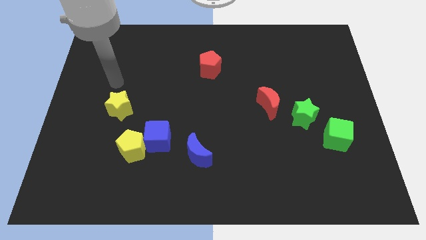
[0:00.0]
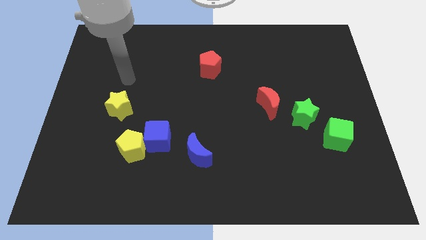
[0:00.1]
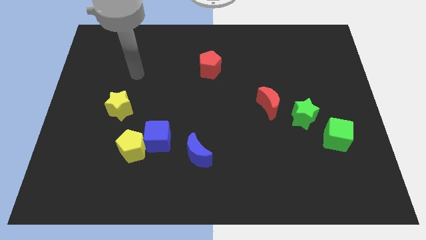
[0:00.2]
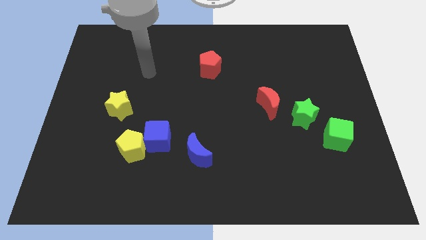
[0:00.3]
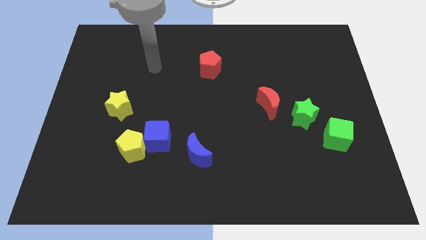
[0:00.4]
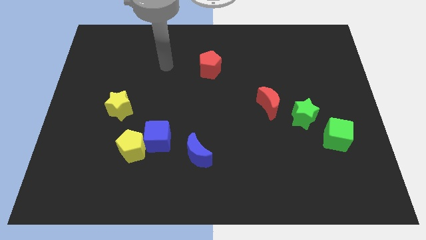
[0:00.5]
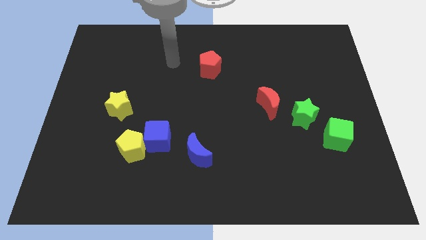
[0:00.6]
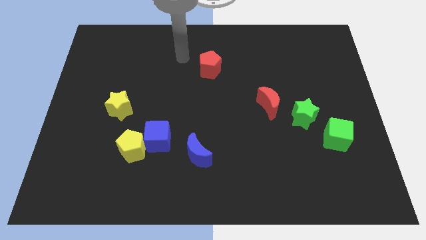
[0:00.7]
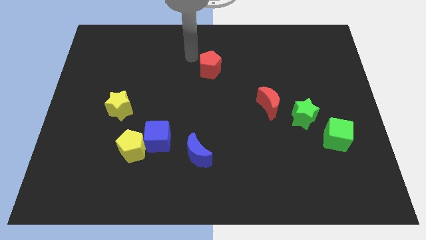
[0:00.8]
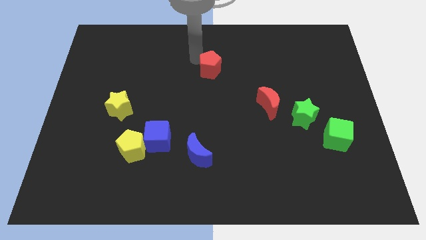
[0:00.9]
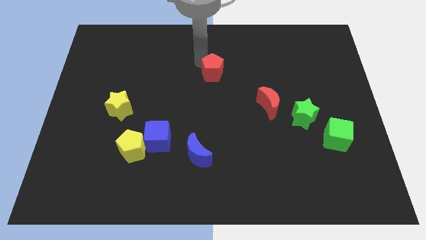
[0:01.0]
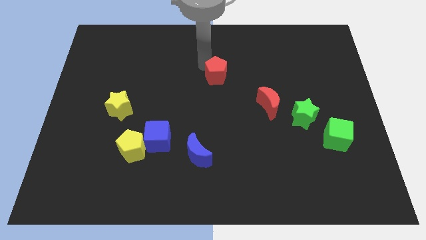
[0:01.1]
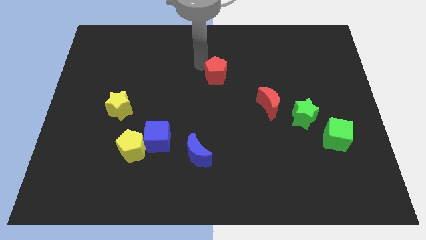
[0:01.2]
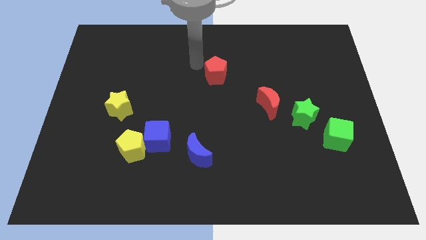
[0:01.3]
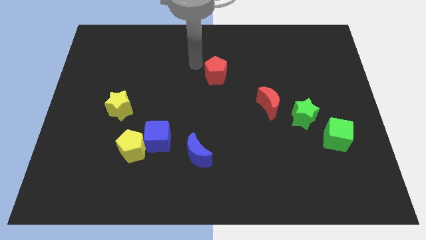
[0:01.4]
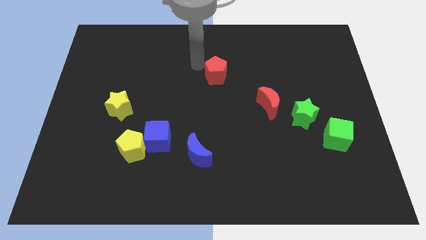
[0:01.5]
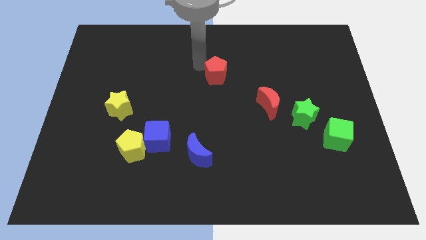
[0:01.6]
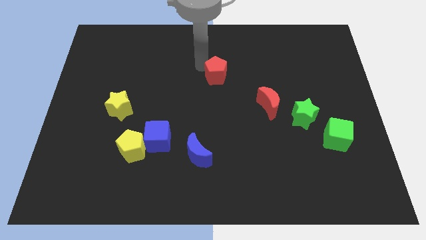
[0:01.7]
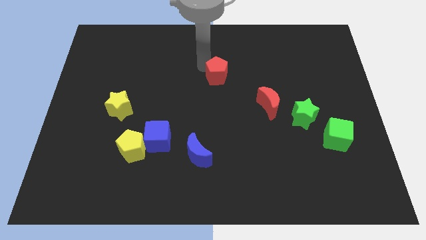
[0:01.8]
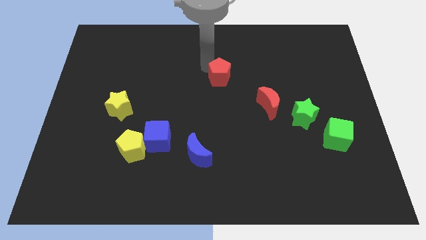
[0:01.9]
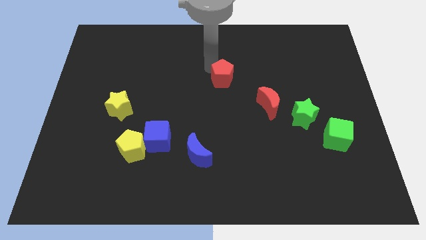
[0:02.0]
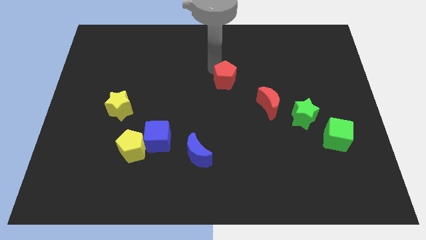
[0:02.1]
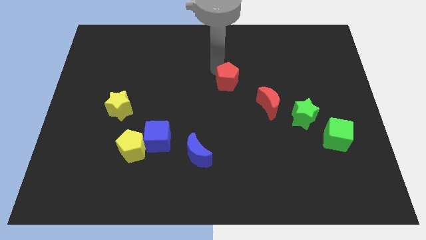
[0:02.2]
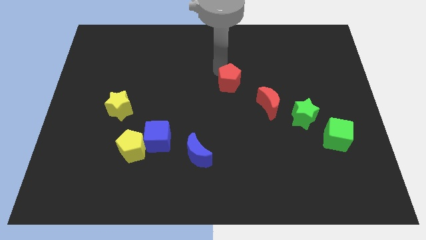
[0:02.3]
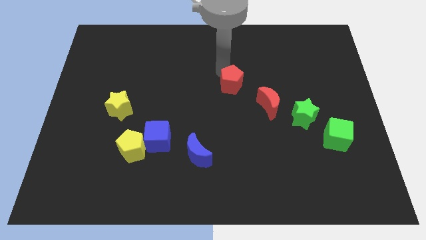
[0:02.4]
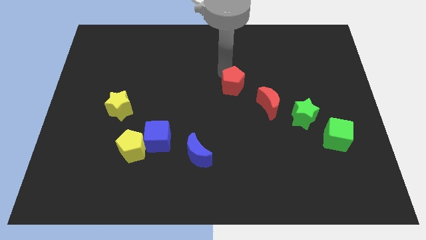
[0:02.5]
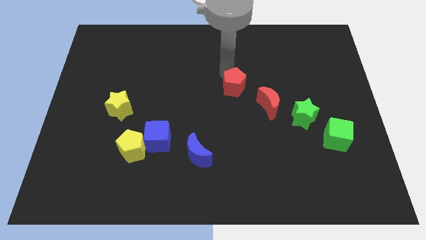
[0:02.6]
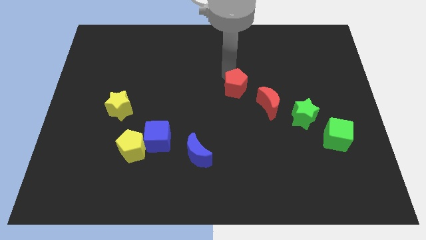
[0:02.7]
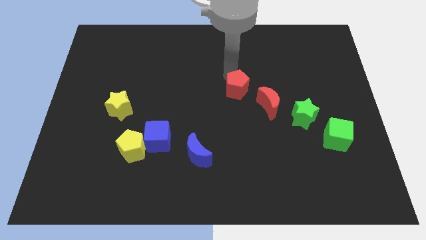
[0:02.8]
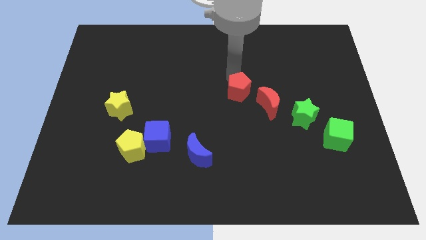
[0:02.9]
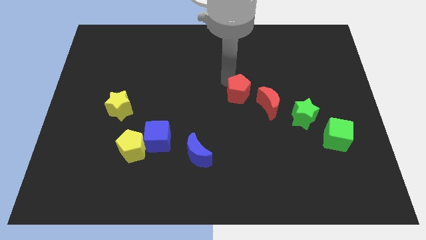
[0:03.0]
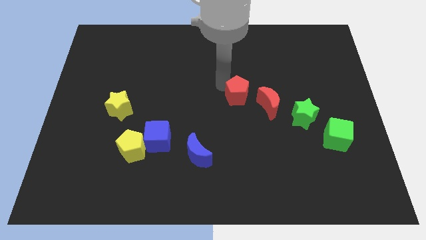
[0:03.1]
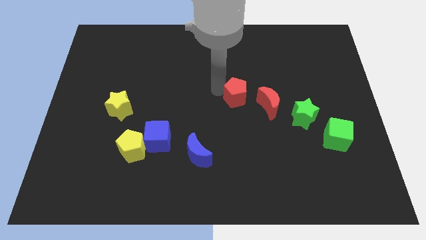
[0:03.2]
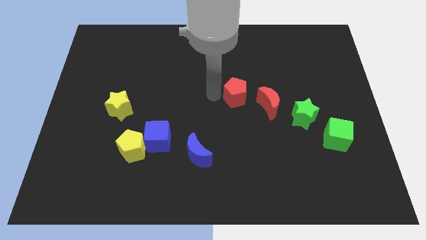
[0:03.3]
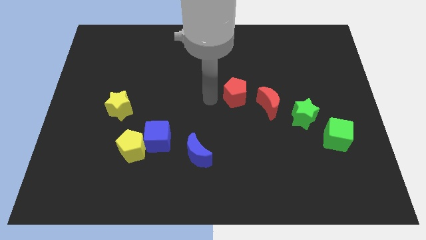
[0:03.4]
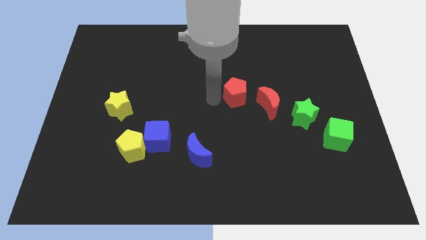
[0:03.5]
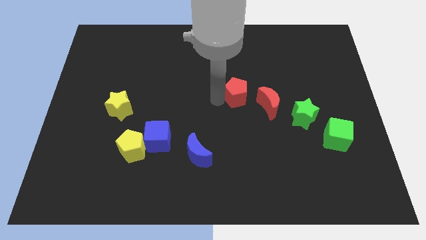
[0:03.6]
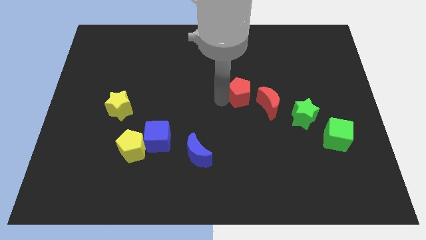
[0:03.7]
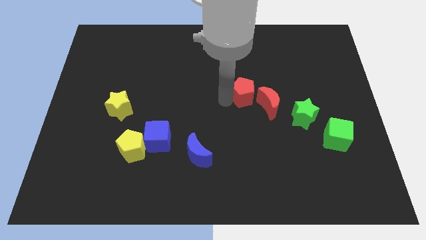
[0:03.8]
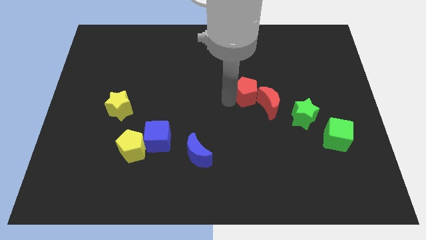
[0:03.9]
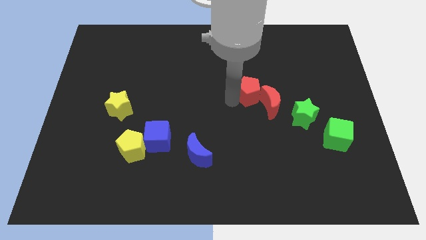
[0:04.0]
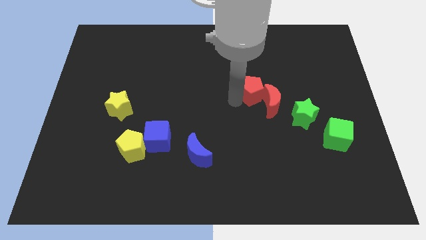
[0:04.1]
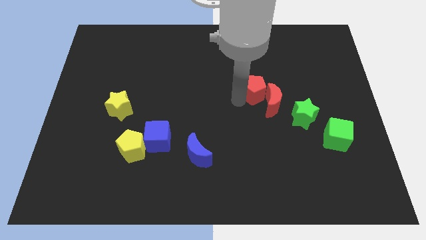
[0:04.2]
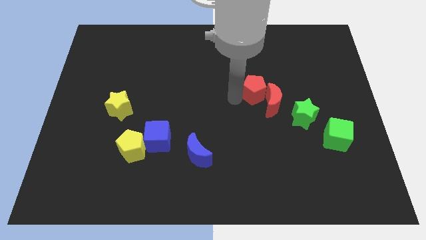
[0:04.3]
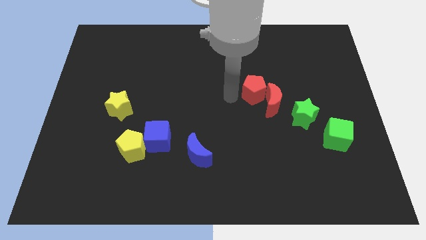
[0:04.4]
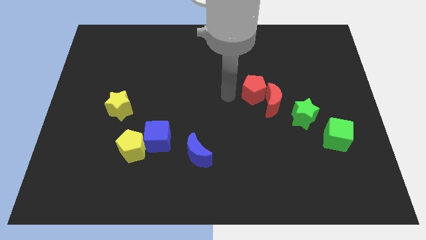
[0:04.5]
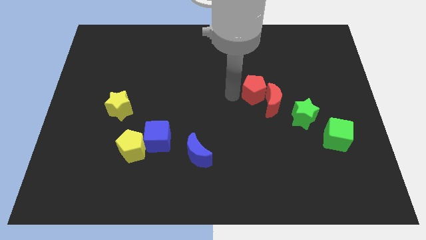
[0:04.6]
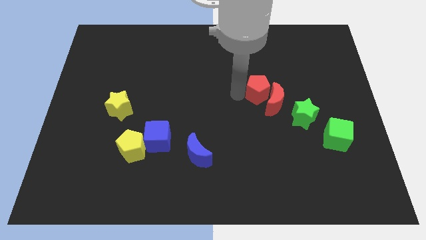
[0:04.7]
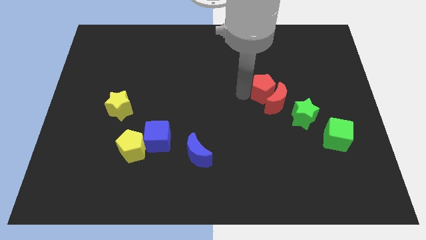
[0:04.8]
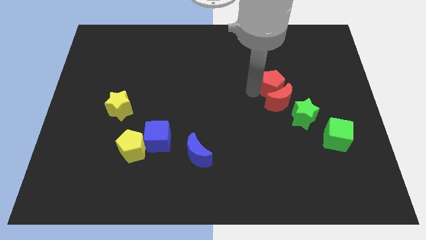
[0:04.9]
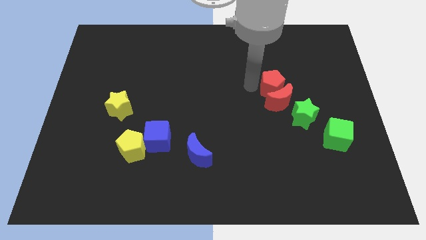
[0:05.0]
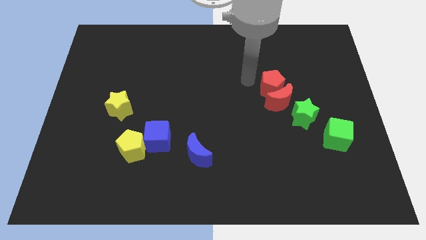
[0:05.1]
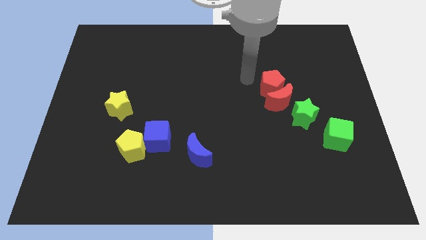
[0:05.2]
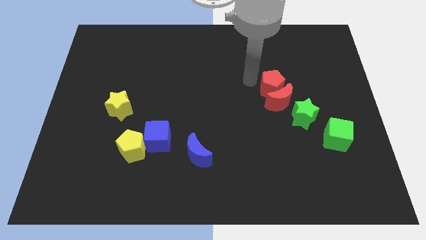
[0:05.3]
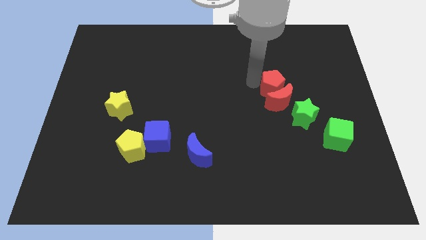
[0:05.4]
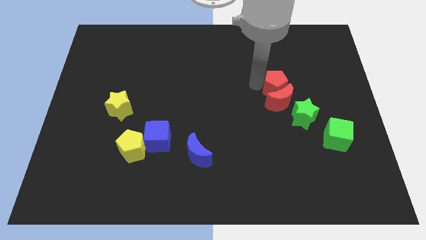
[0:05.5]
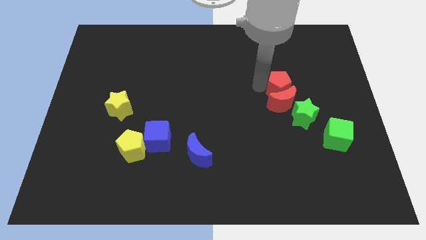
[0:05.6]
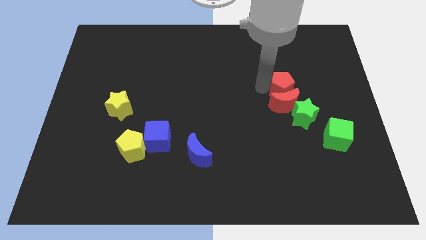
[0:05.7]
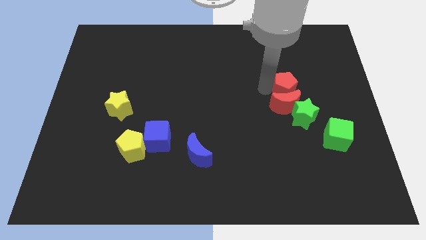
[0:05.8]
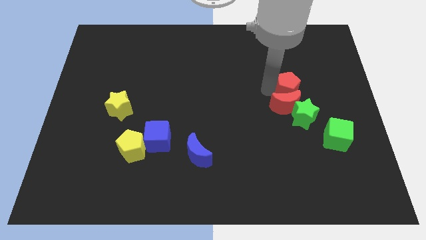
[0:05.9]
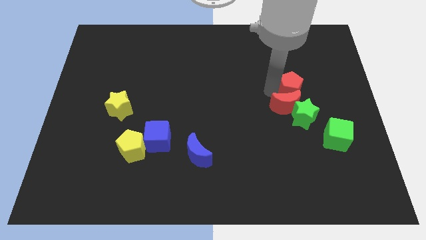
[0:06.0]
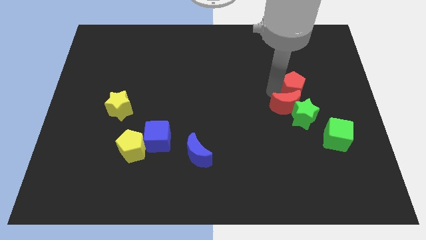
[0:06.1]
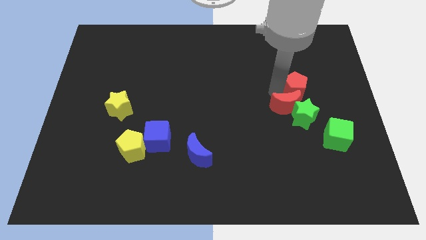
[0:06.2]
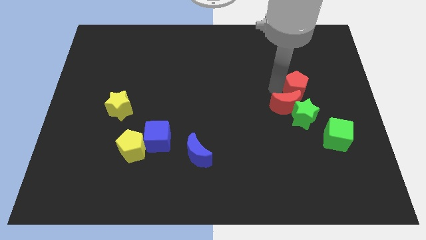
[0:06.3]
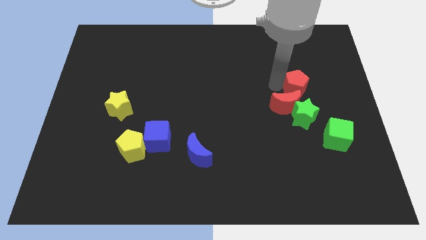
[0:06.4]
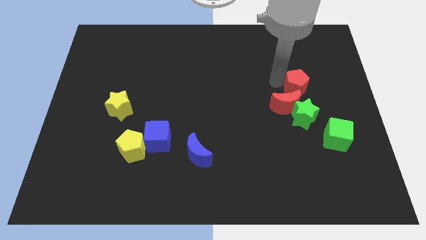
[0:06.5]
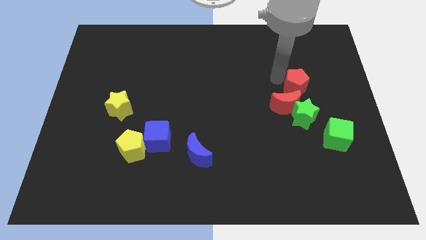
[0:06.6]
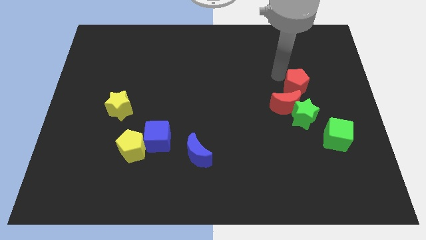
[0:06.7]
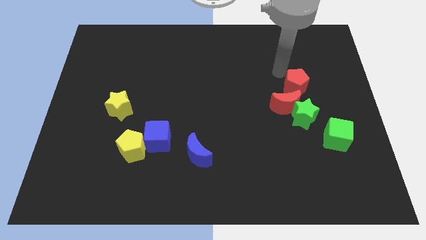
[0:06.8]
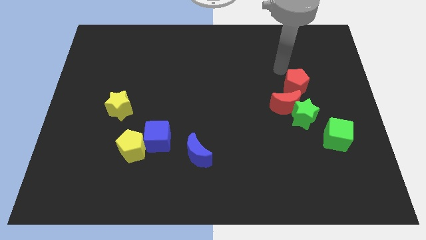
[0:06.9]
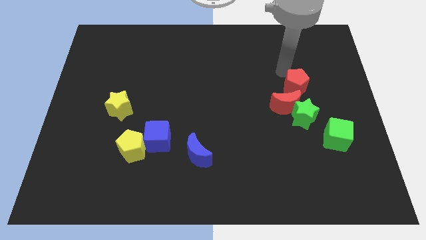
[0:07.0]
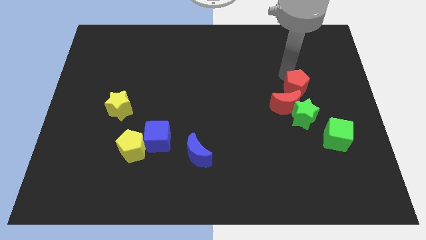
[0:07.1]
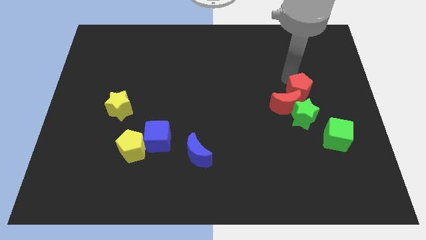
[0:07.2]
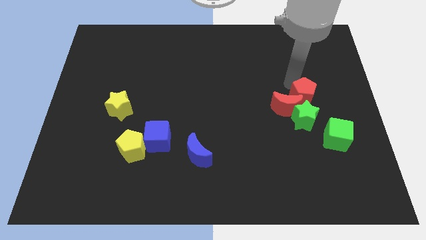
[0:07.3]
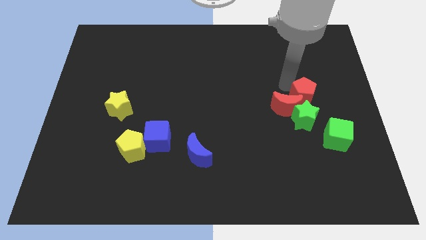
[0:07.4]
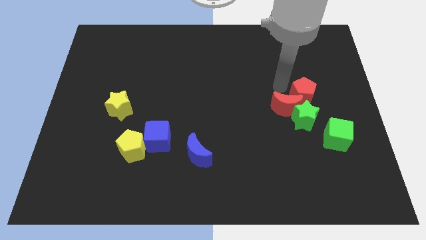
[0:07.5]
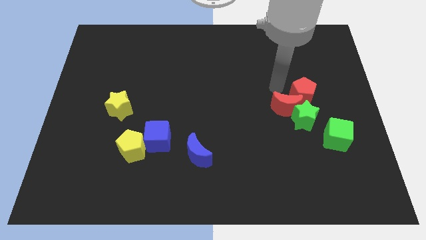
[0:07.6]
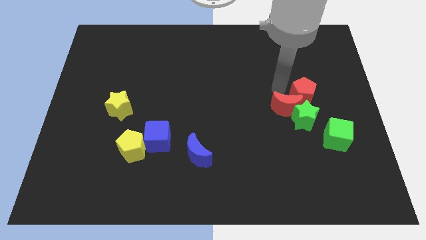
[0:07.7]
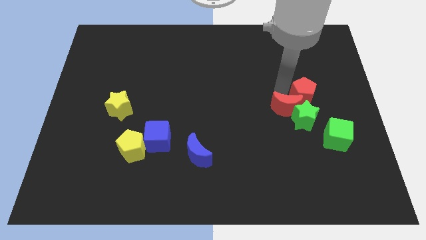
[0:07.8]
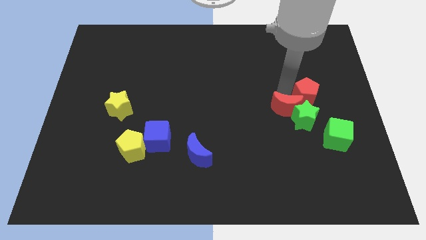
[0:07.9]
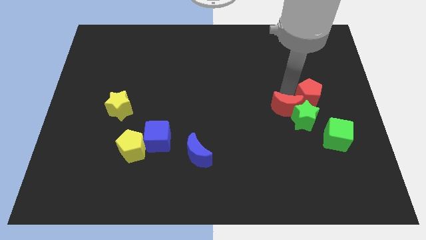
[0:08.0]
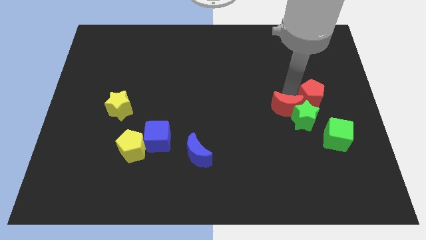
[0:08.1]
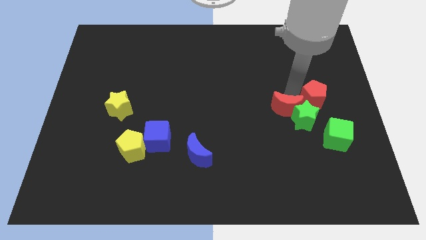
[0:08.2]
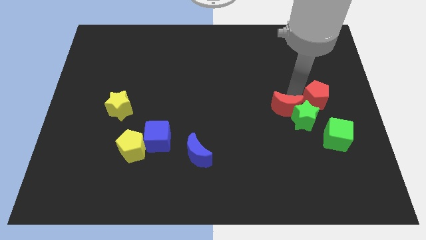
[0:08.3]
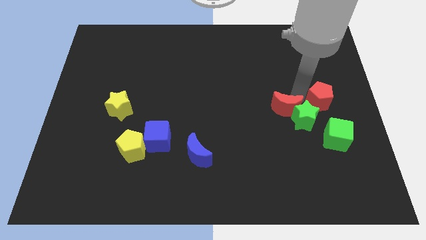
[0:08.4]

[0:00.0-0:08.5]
push the red pentagon to the right side of the board
